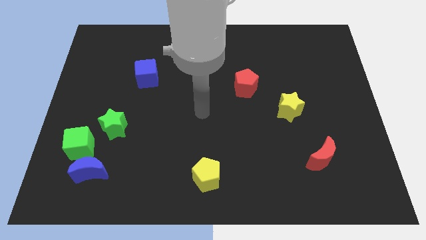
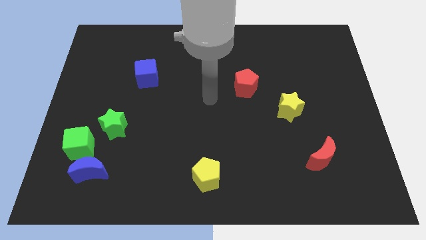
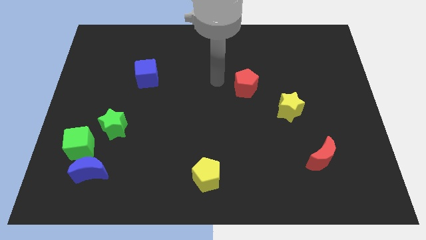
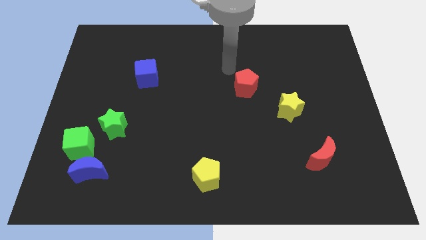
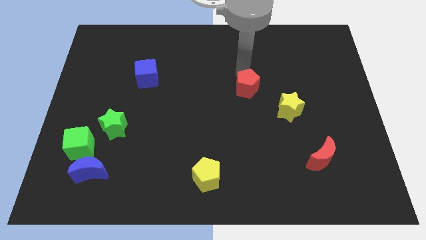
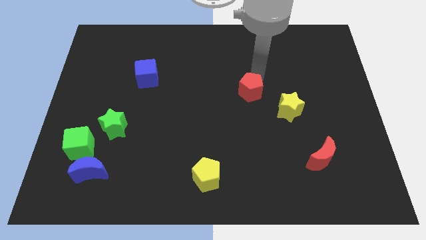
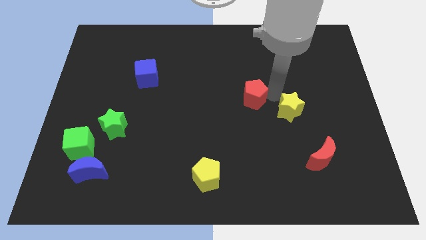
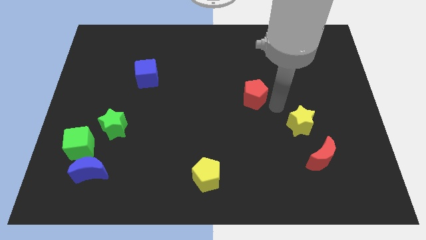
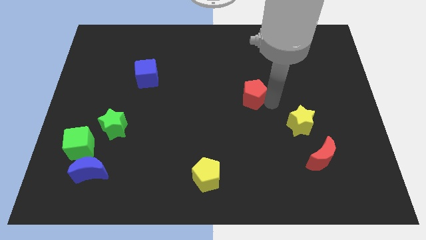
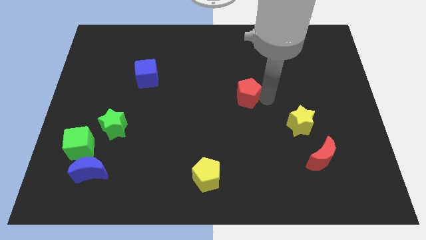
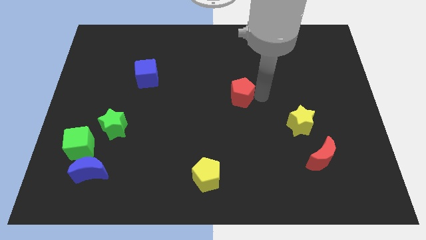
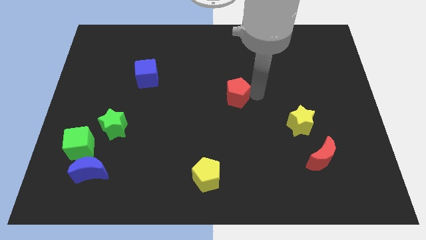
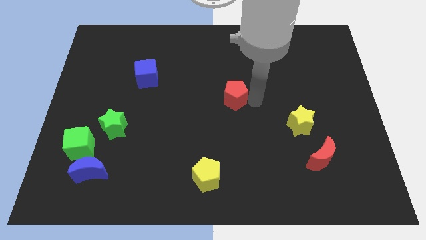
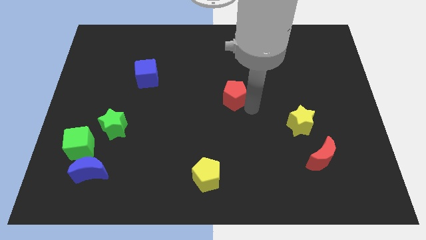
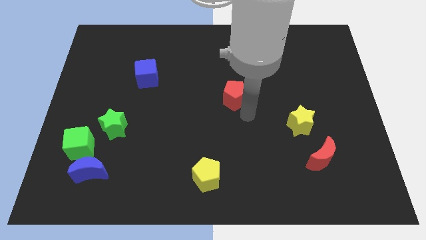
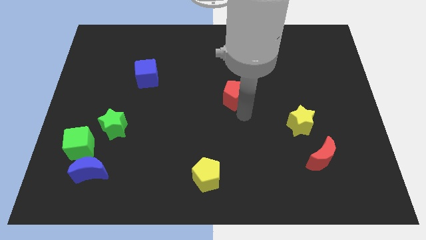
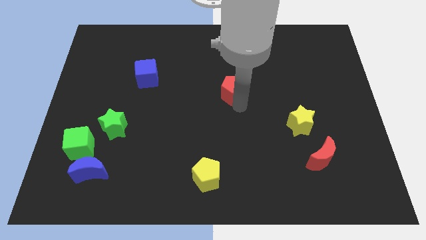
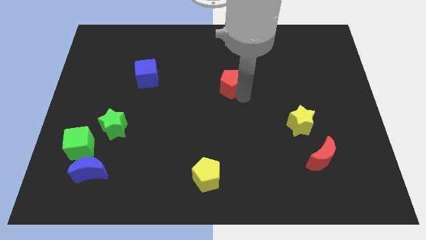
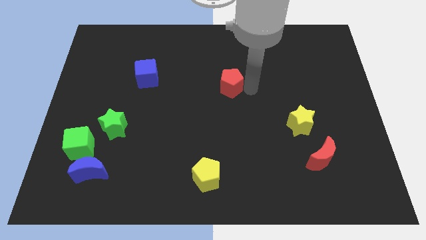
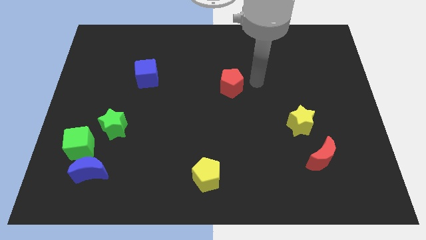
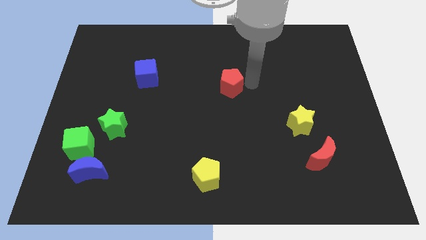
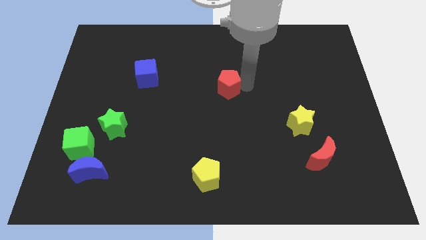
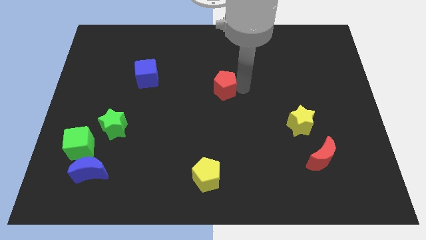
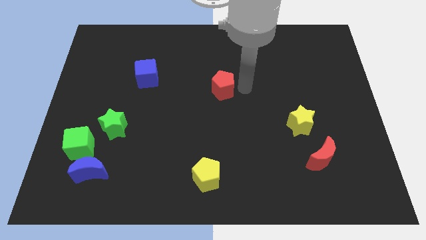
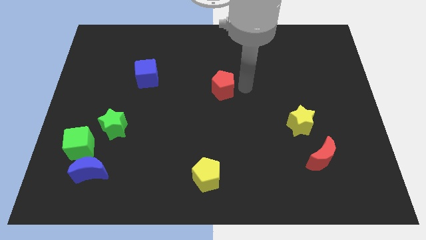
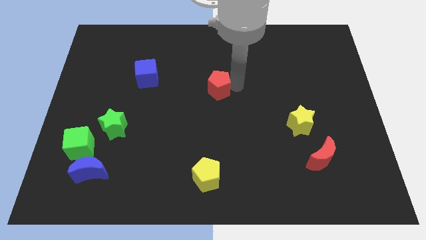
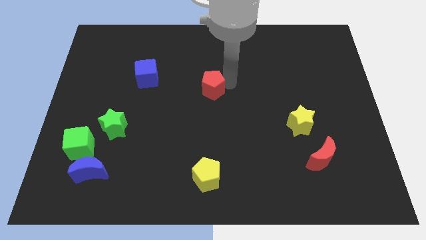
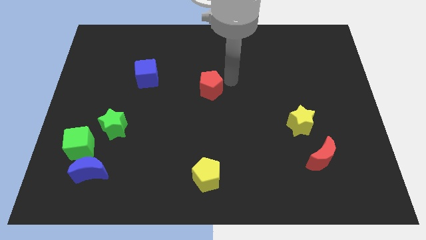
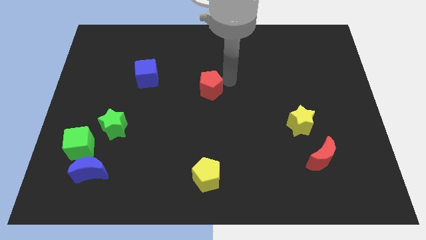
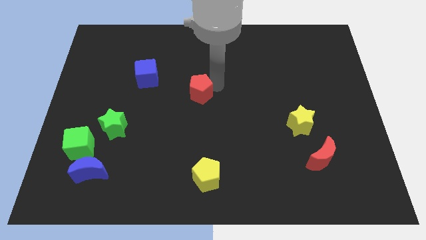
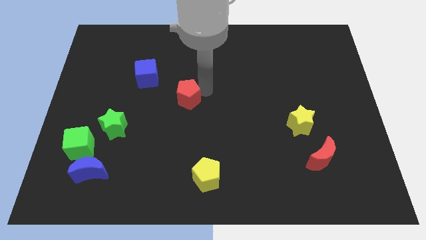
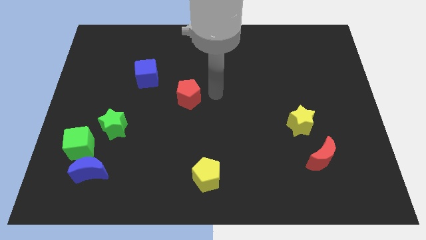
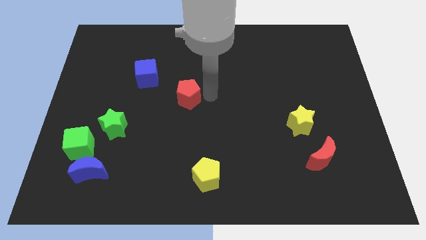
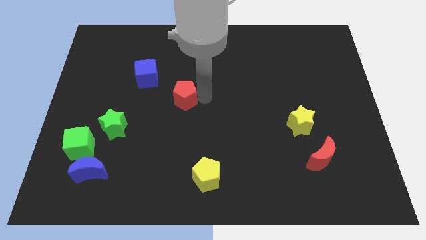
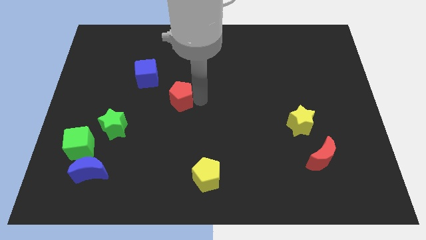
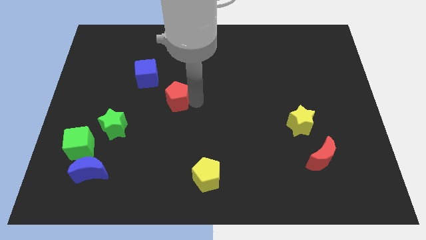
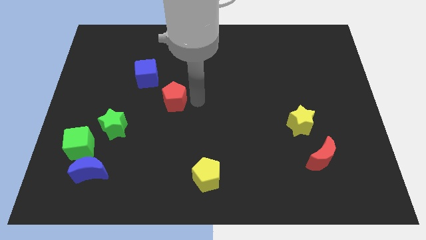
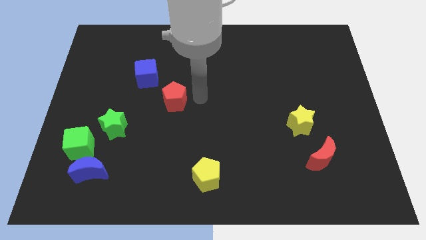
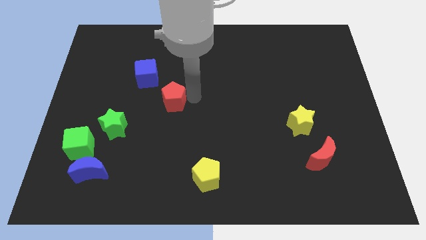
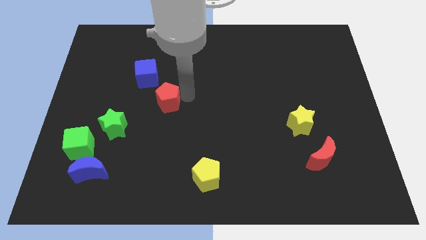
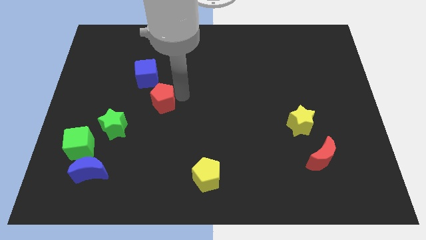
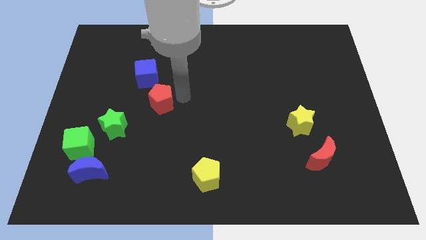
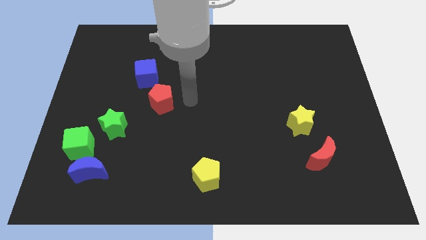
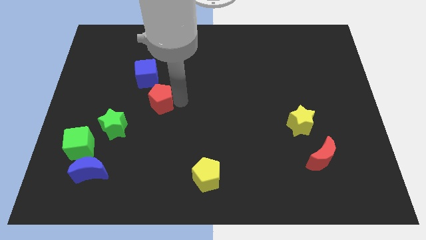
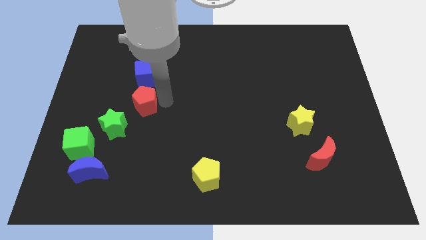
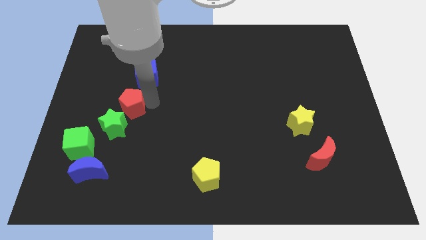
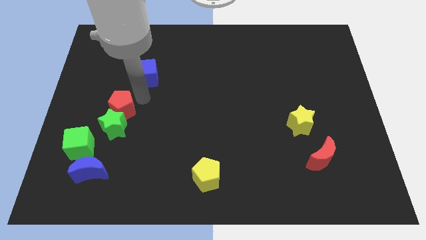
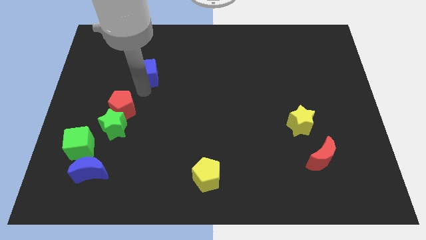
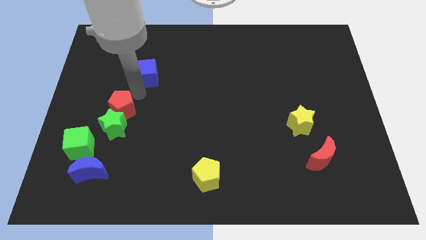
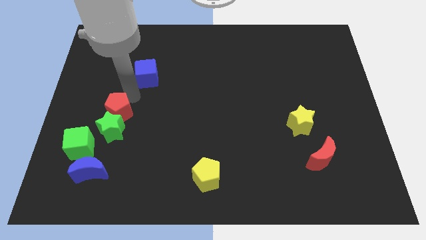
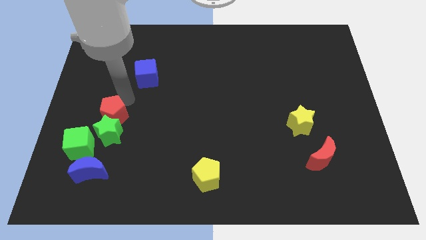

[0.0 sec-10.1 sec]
push the red pentagon to the top of the blue moon
